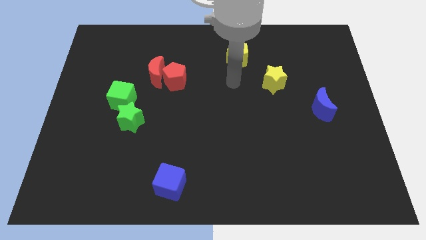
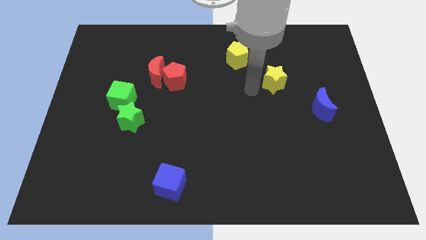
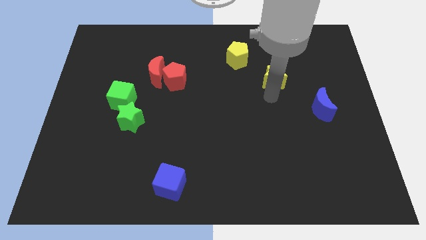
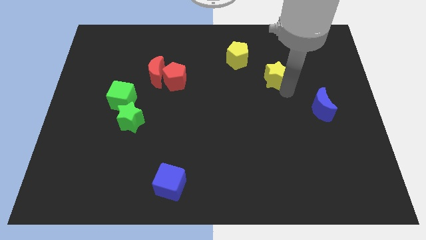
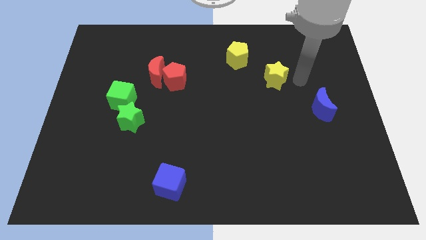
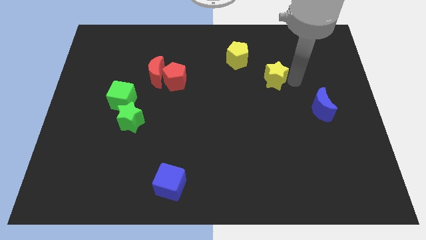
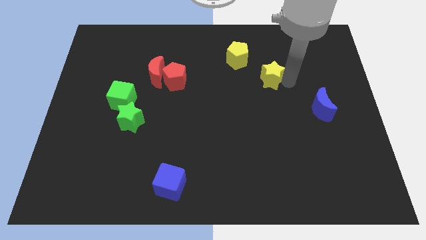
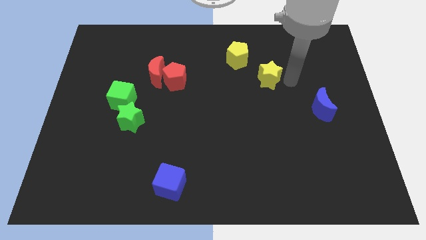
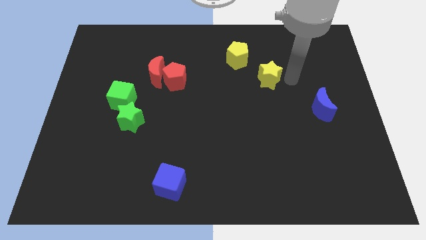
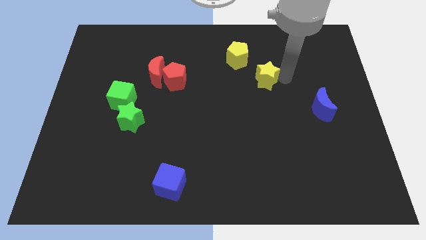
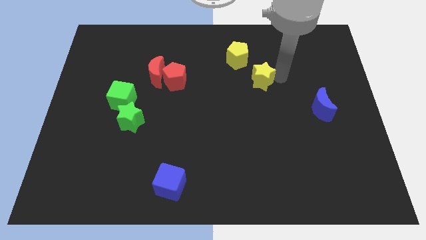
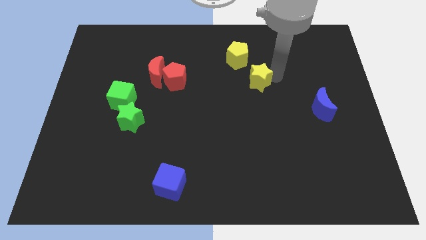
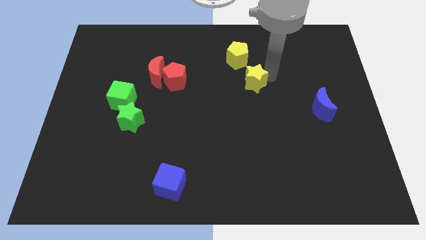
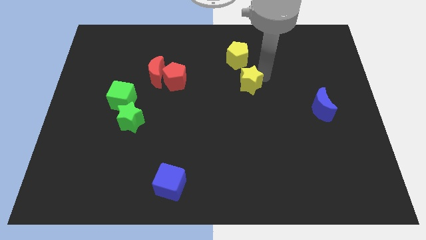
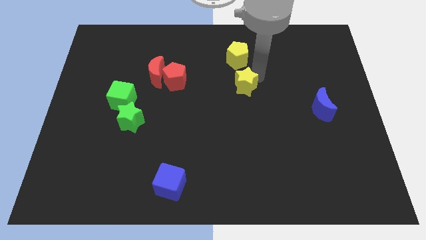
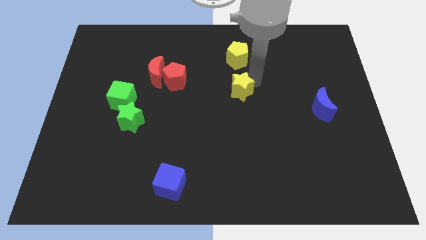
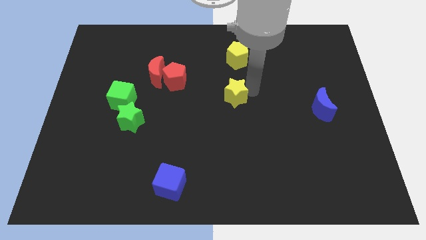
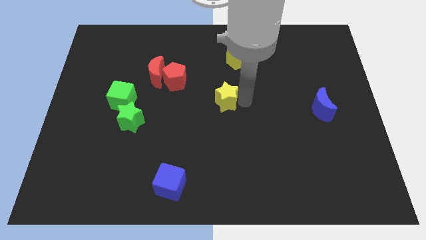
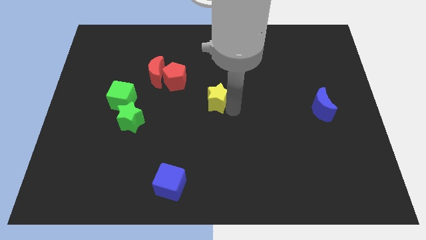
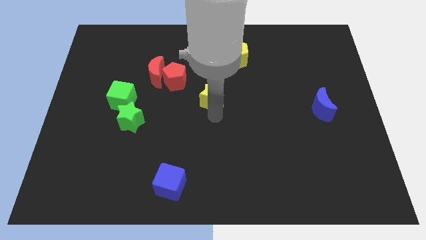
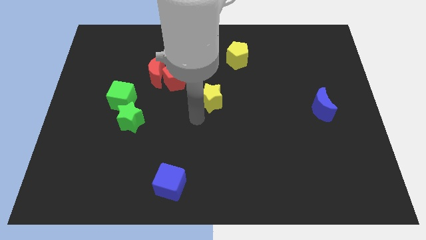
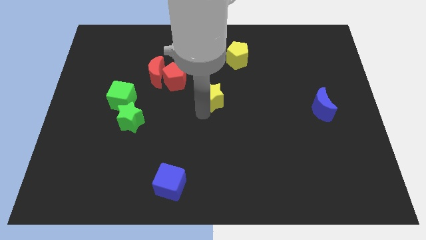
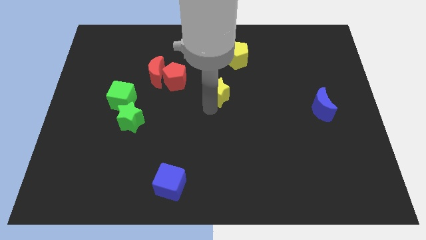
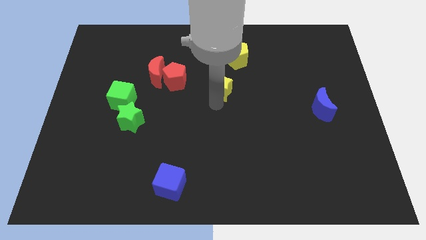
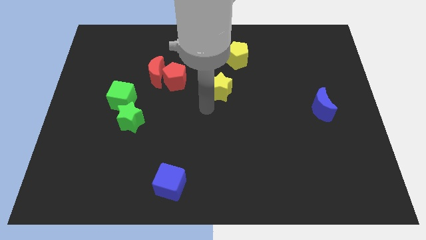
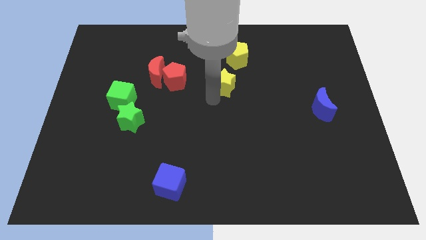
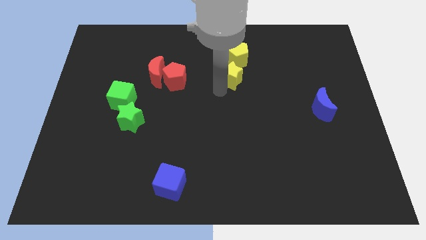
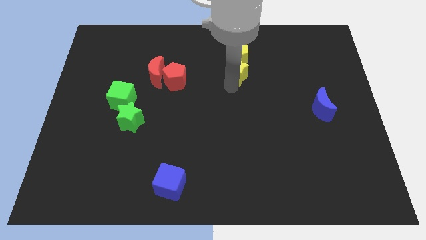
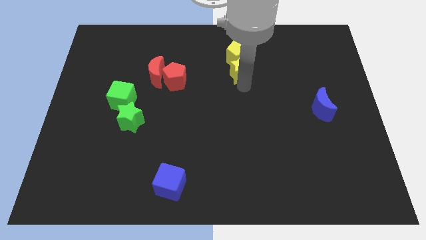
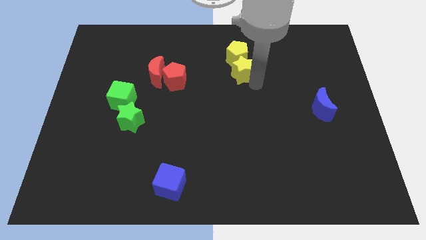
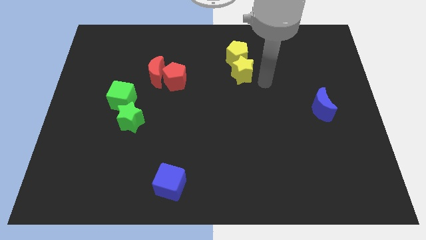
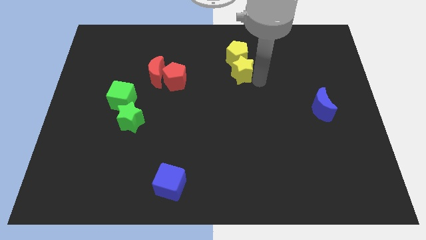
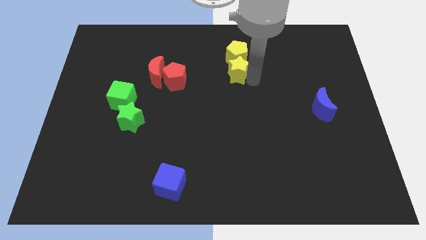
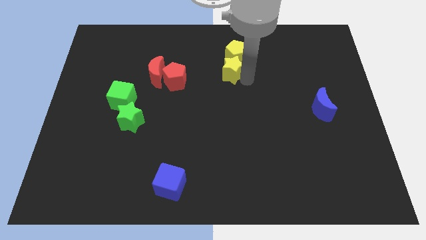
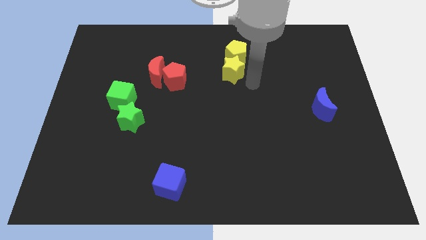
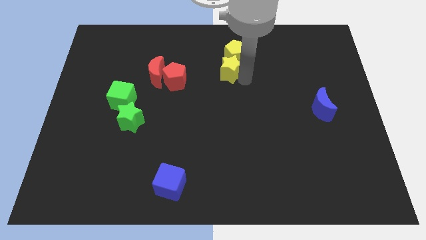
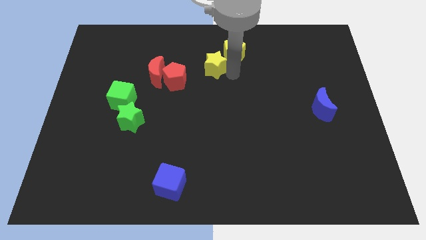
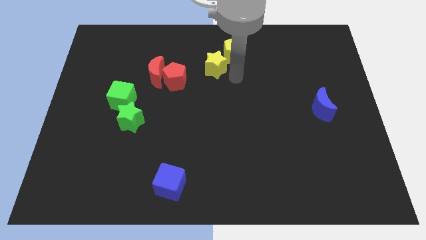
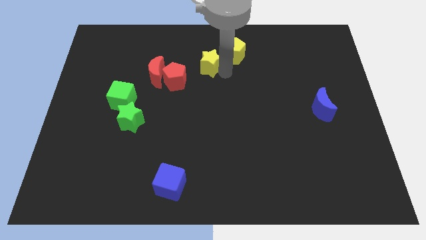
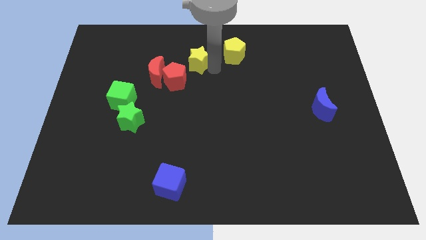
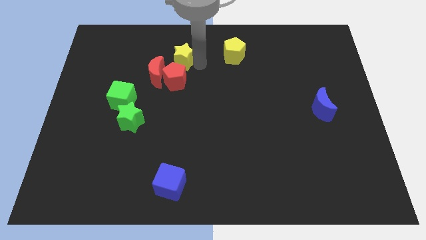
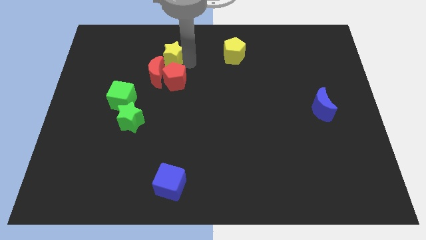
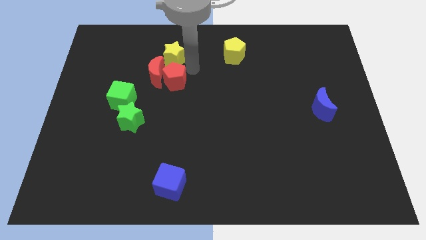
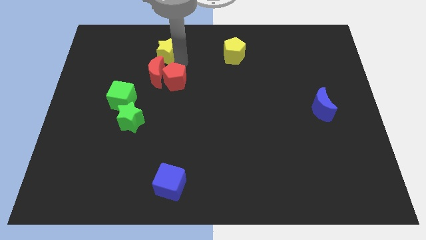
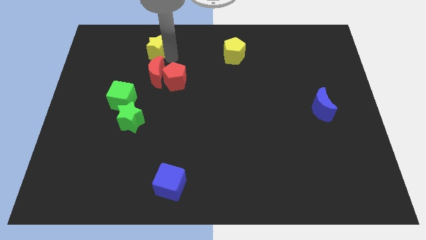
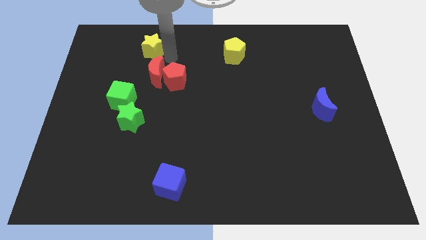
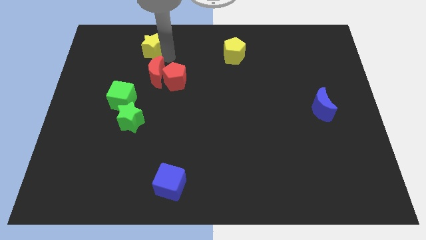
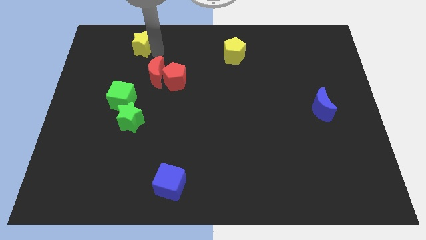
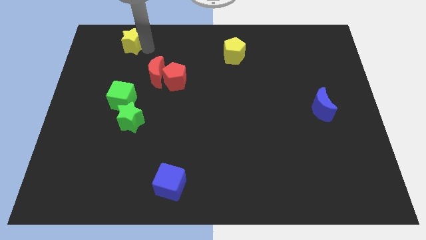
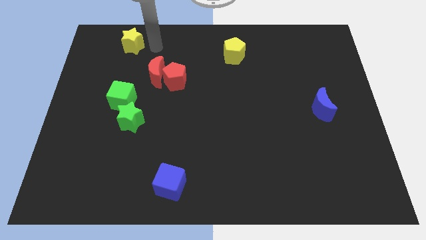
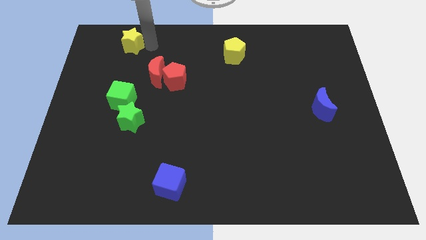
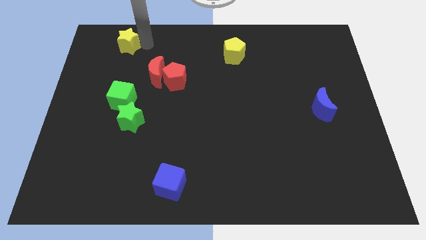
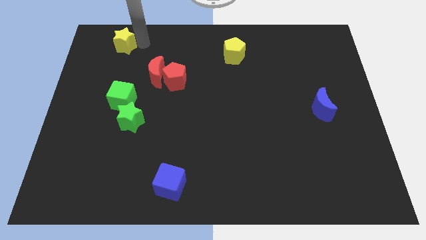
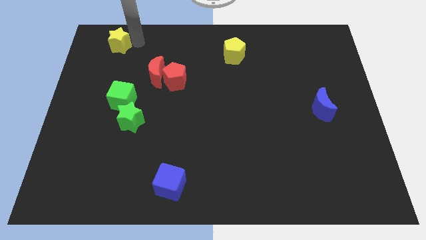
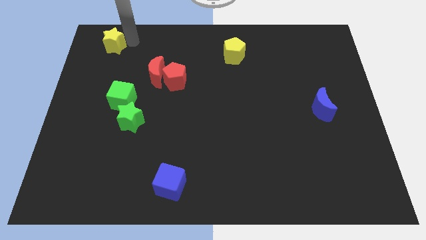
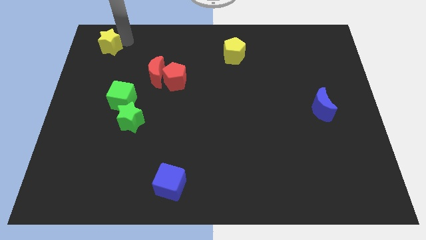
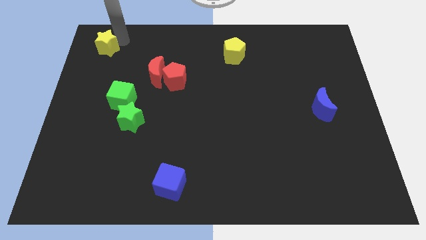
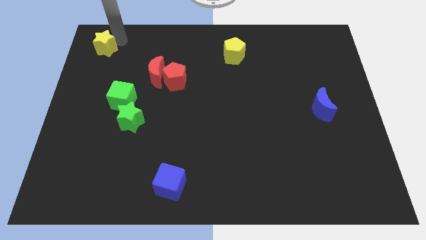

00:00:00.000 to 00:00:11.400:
move the yellow star to the upper left corner

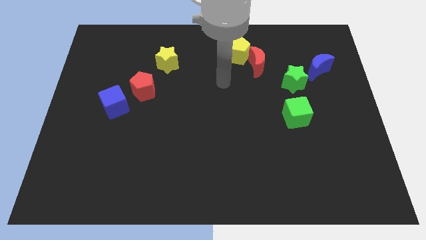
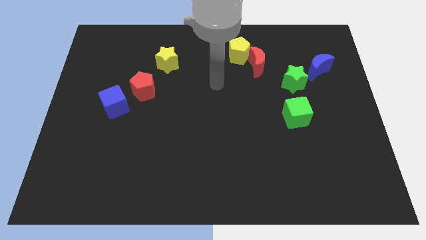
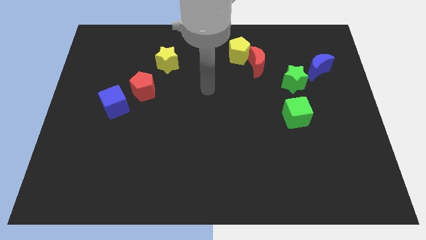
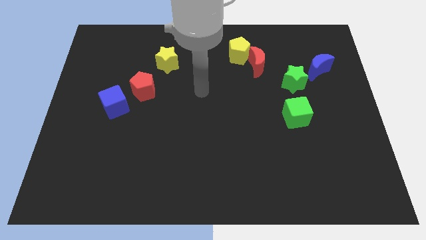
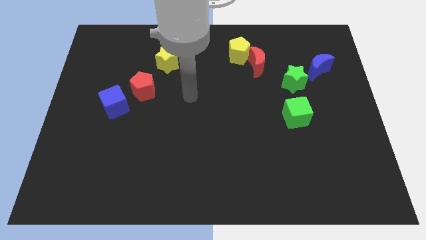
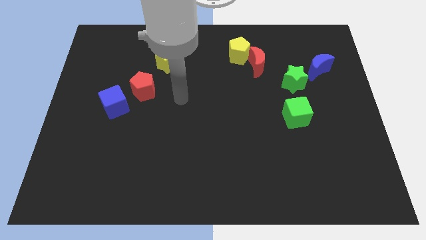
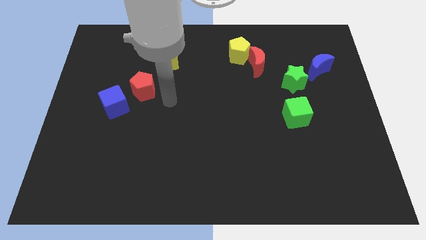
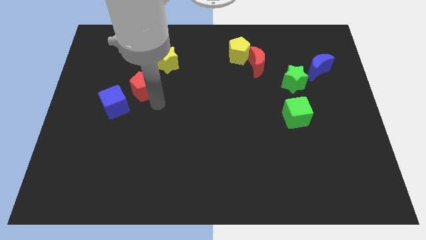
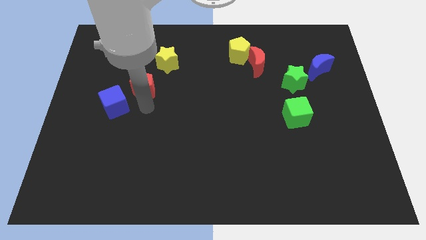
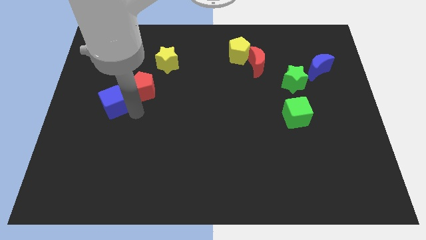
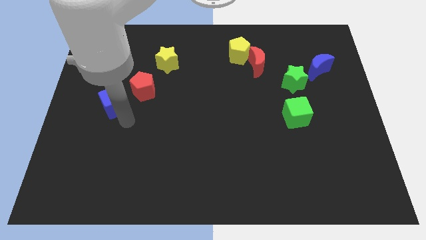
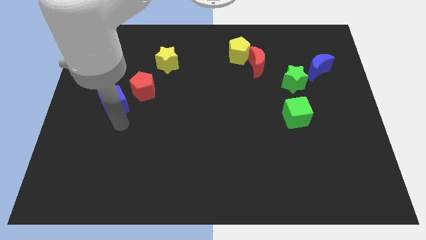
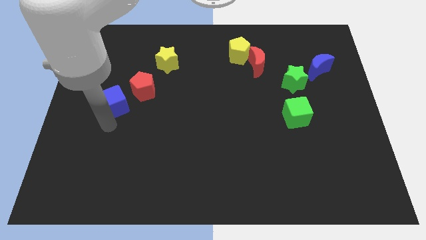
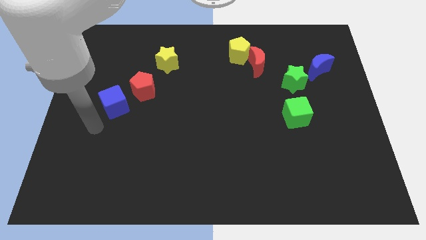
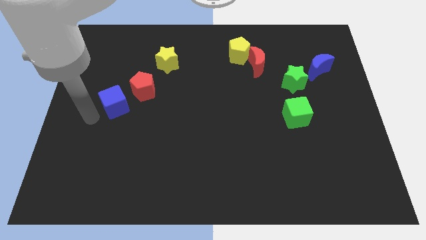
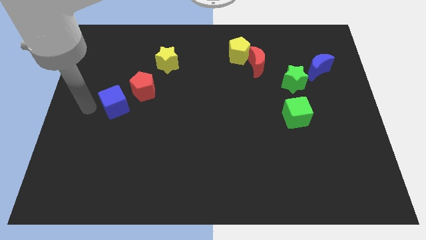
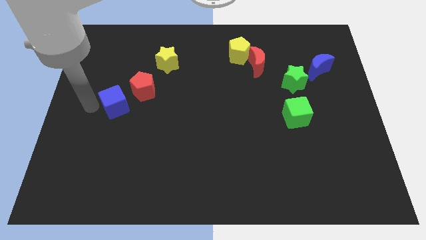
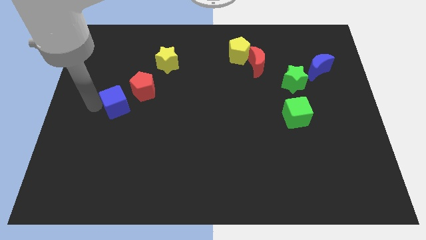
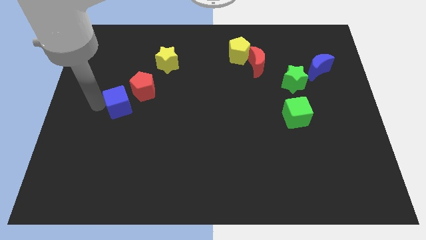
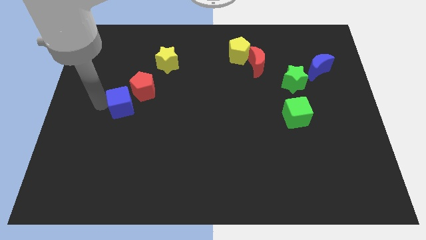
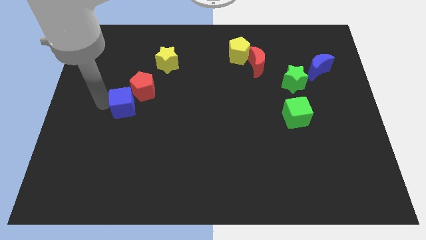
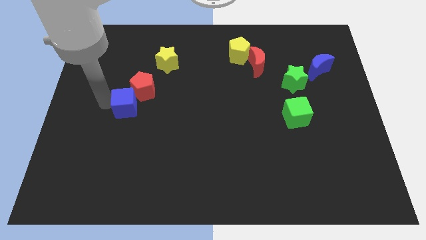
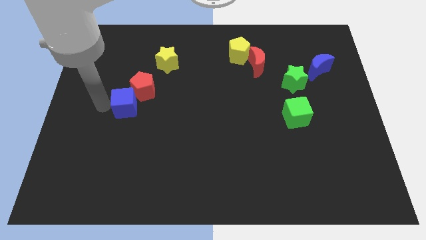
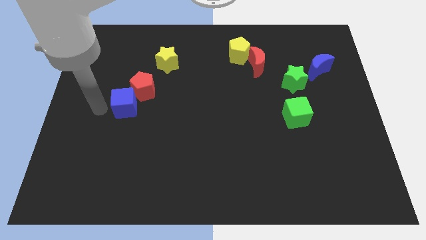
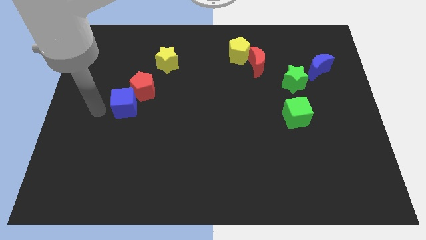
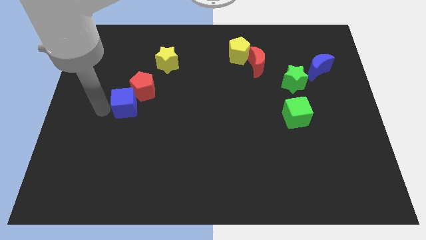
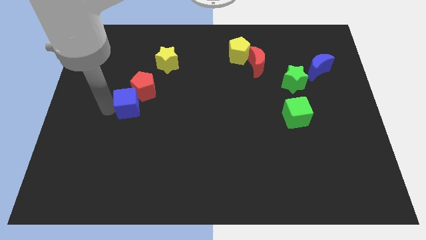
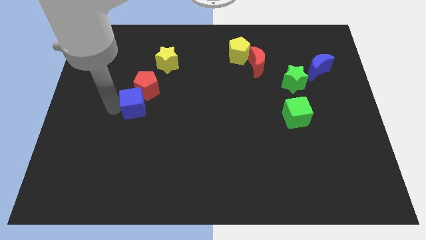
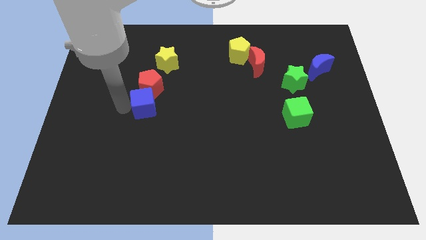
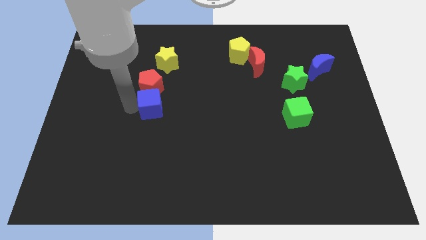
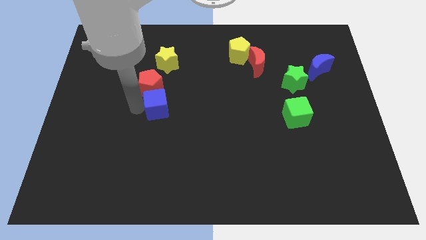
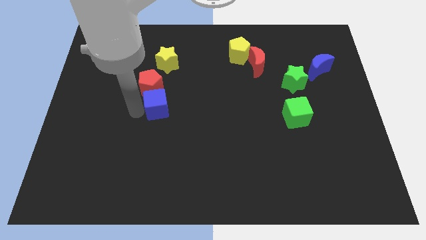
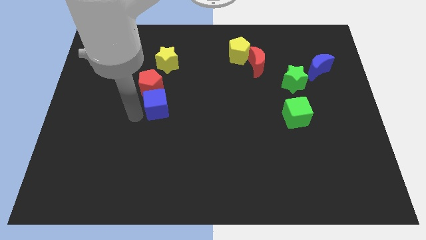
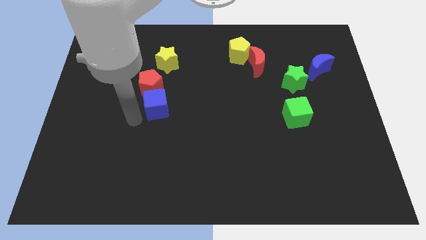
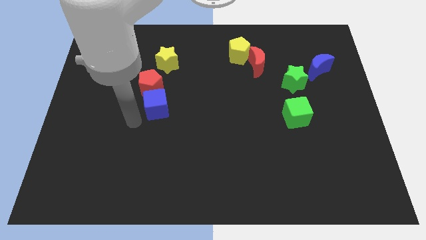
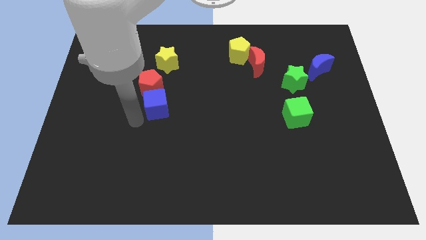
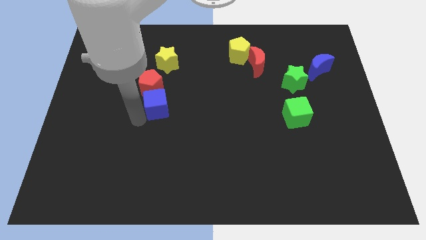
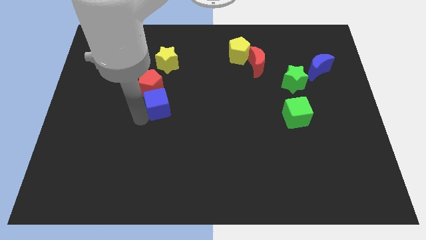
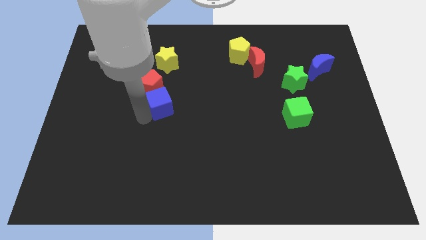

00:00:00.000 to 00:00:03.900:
push the blue cube to the center
